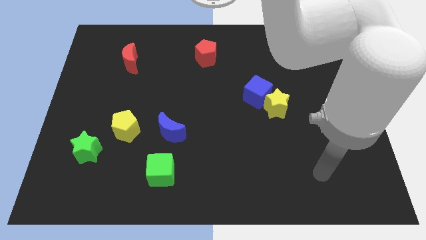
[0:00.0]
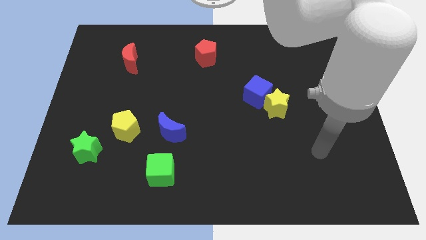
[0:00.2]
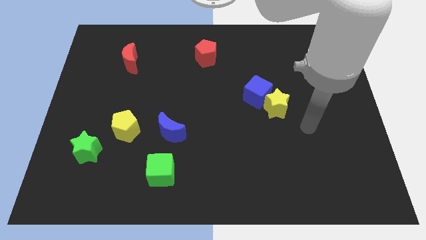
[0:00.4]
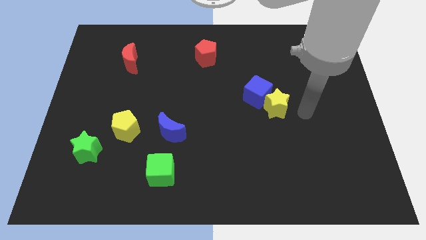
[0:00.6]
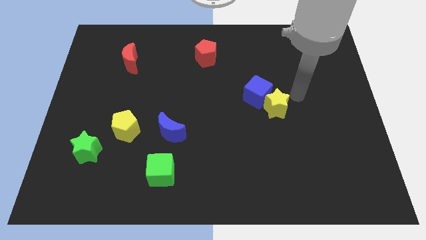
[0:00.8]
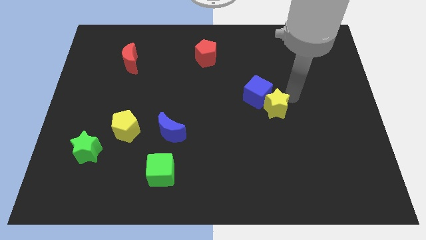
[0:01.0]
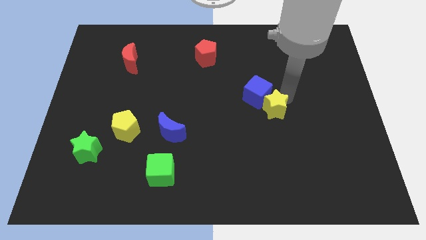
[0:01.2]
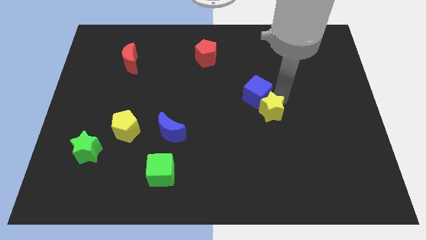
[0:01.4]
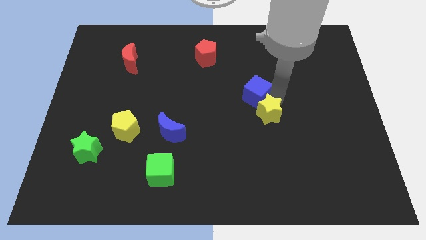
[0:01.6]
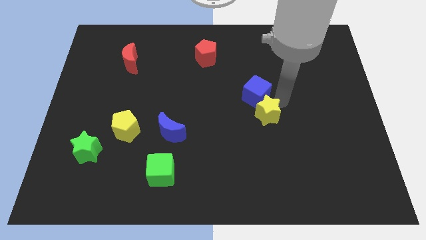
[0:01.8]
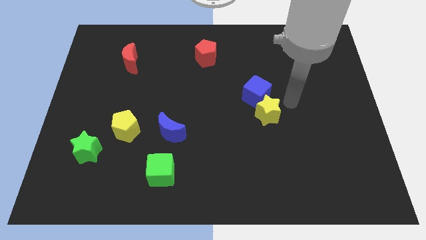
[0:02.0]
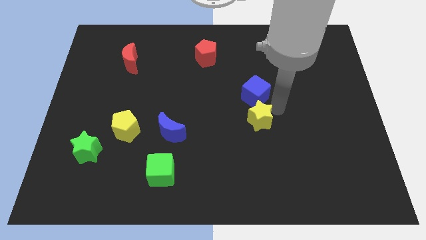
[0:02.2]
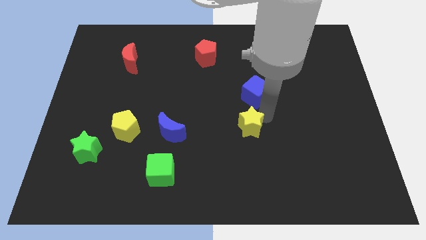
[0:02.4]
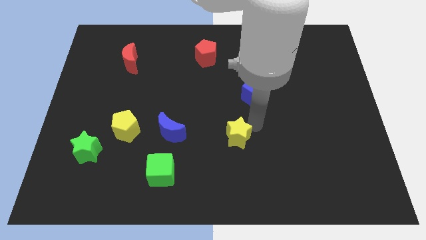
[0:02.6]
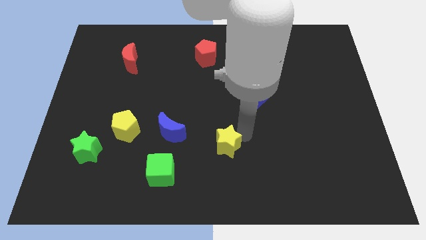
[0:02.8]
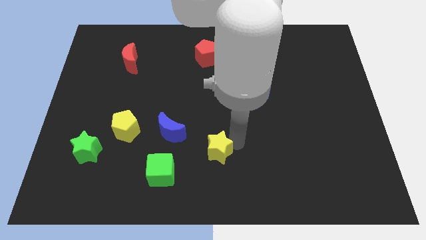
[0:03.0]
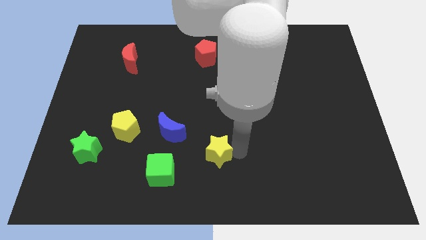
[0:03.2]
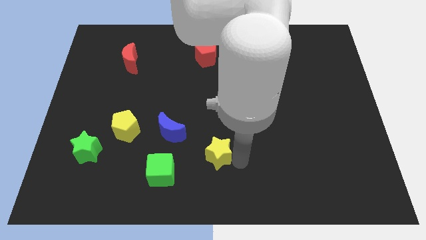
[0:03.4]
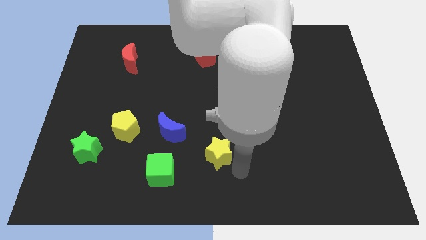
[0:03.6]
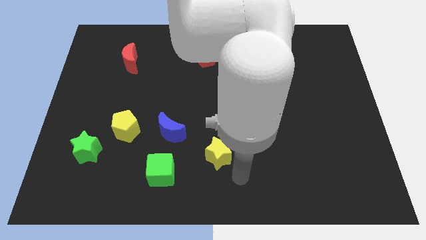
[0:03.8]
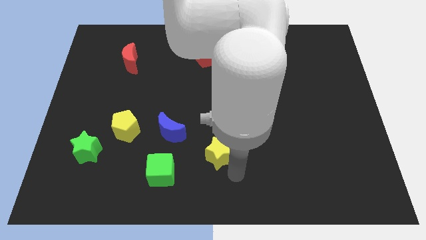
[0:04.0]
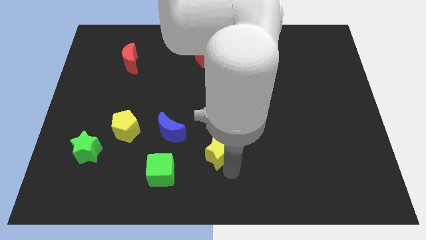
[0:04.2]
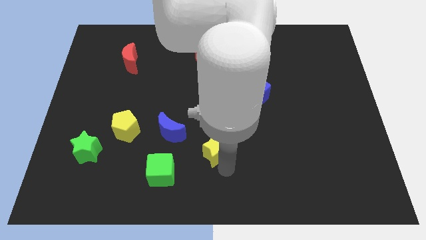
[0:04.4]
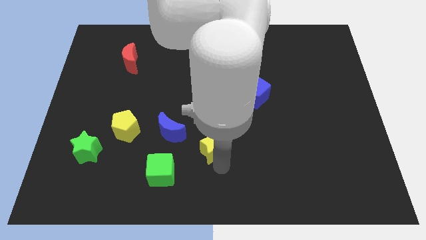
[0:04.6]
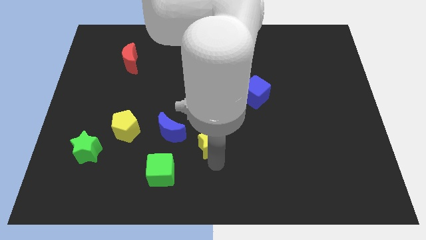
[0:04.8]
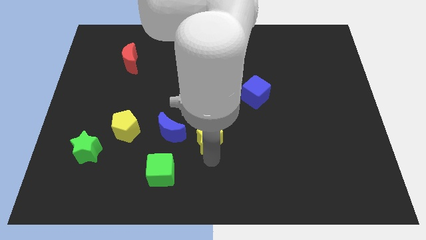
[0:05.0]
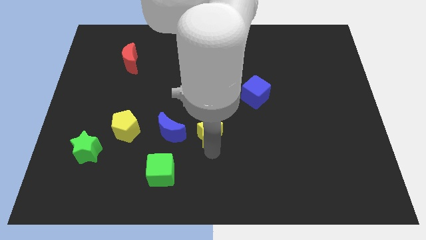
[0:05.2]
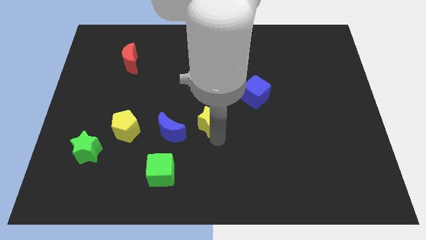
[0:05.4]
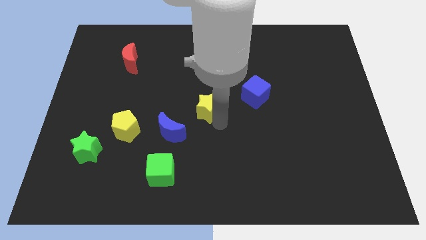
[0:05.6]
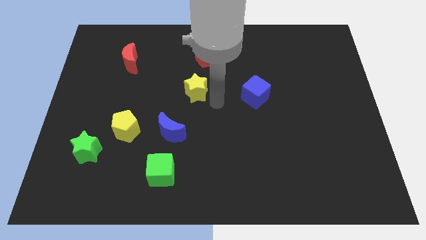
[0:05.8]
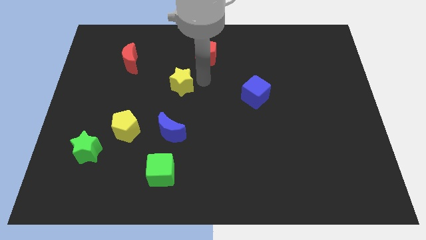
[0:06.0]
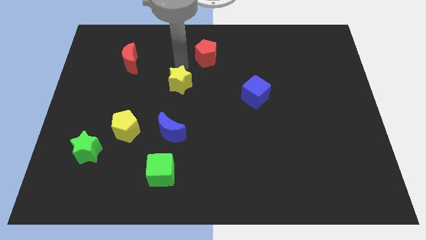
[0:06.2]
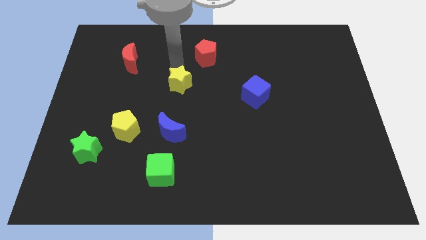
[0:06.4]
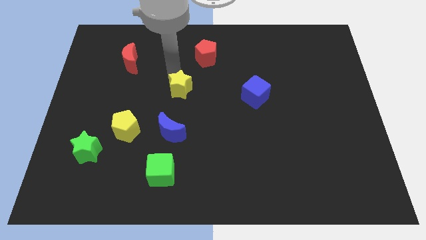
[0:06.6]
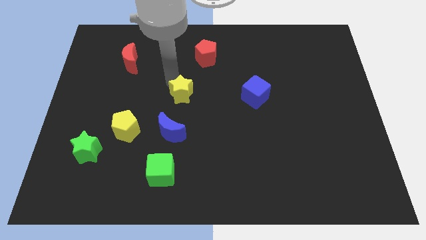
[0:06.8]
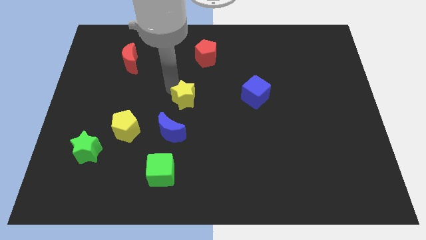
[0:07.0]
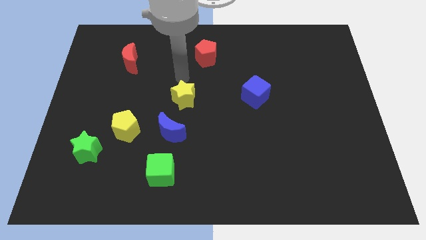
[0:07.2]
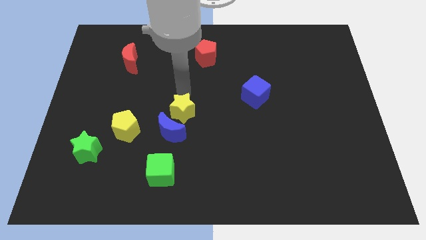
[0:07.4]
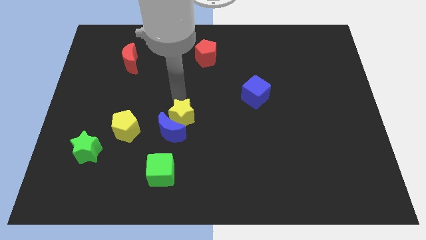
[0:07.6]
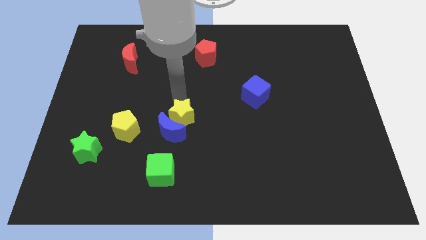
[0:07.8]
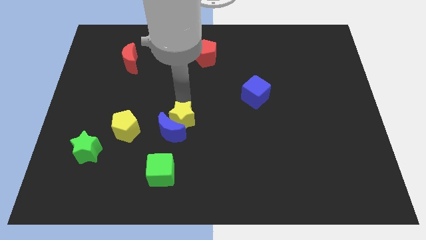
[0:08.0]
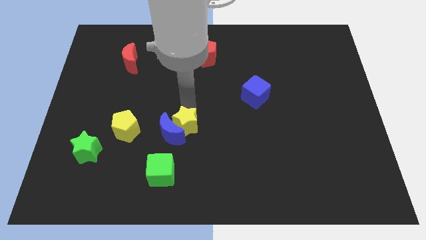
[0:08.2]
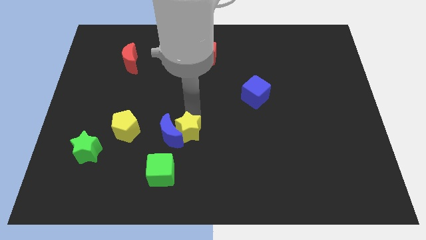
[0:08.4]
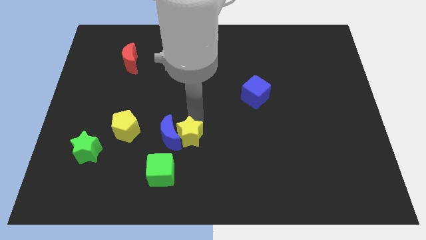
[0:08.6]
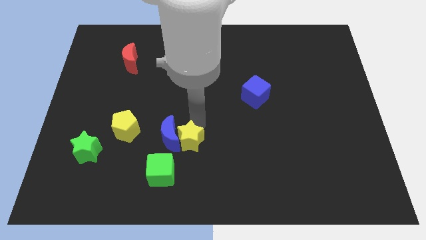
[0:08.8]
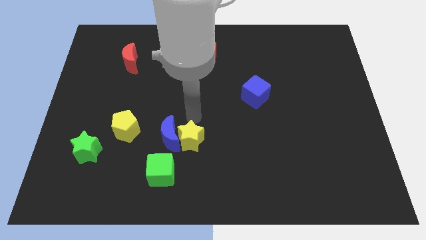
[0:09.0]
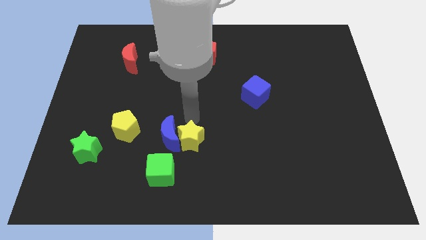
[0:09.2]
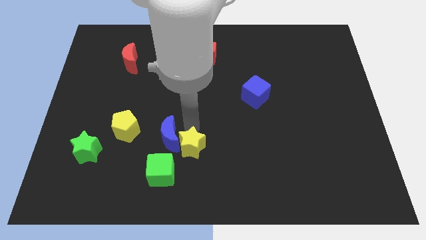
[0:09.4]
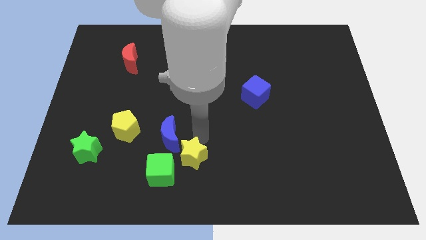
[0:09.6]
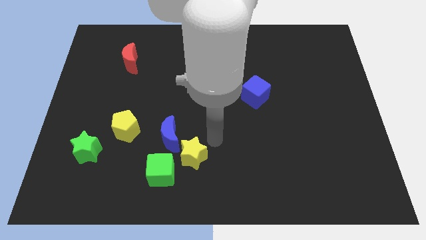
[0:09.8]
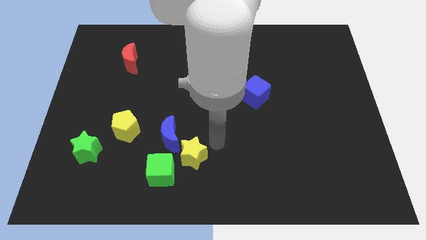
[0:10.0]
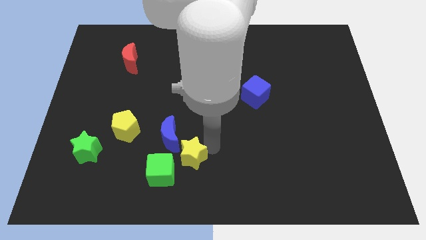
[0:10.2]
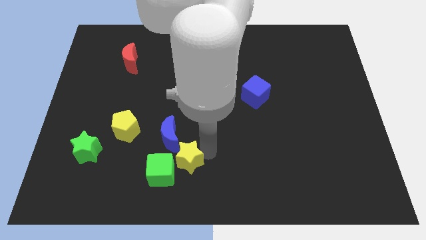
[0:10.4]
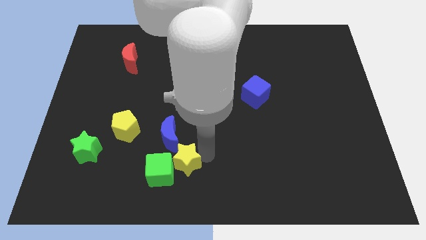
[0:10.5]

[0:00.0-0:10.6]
push the yellow star next to the green cube

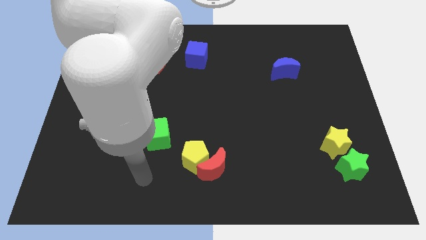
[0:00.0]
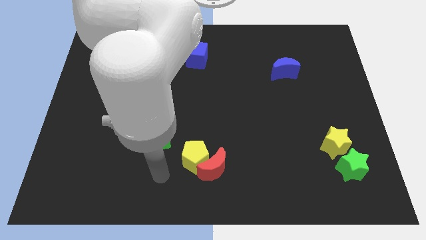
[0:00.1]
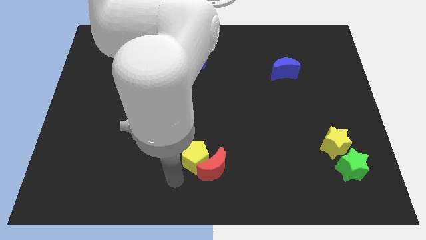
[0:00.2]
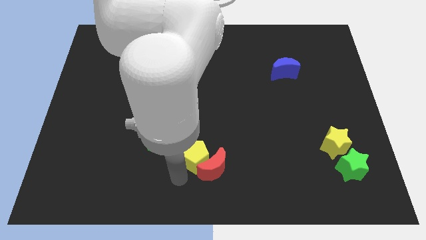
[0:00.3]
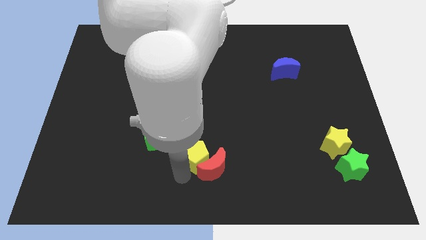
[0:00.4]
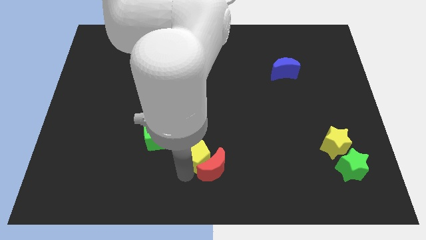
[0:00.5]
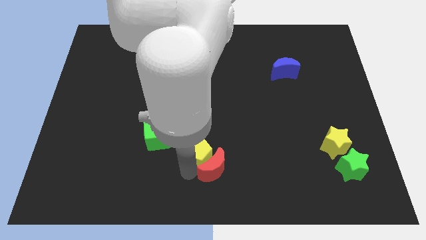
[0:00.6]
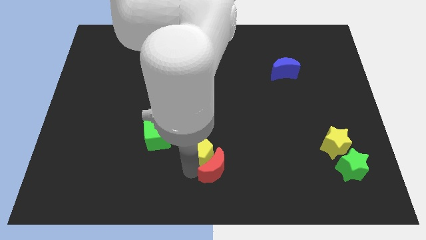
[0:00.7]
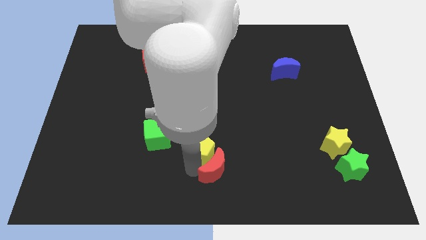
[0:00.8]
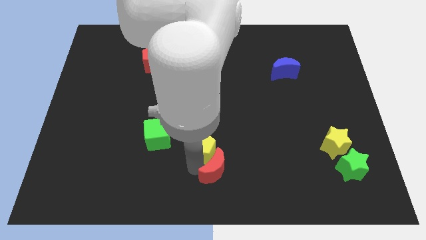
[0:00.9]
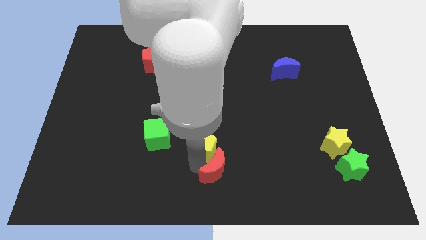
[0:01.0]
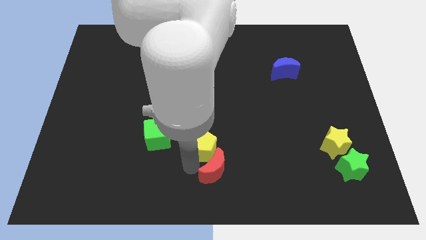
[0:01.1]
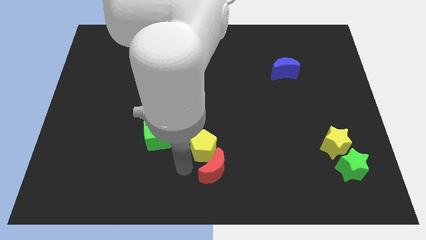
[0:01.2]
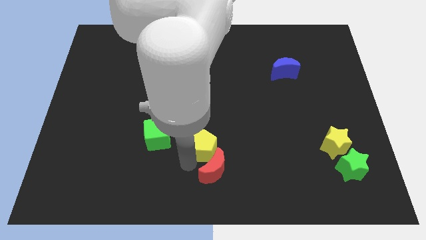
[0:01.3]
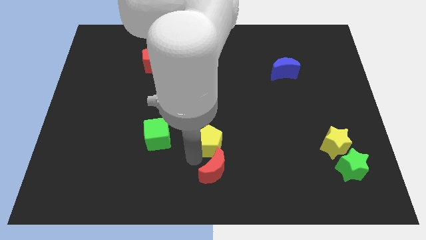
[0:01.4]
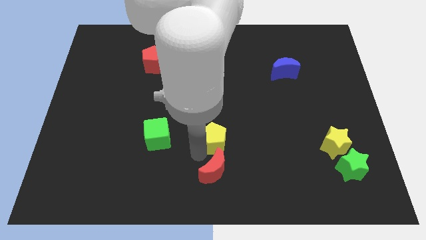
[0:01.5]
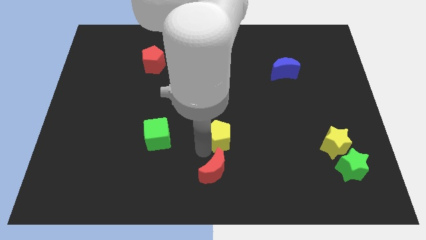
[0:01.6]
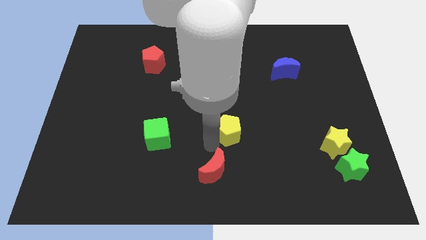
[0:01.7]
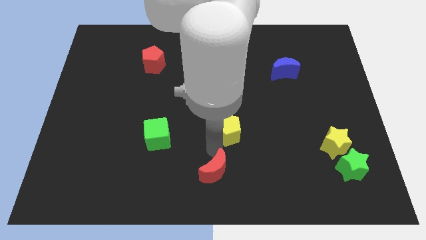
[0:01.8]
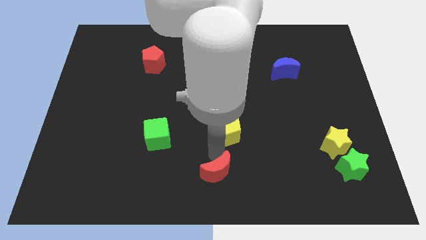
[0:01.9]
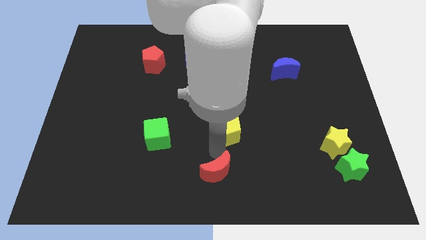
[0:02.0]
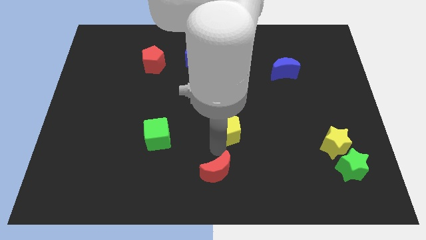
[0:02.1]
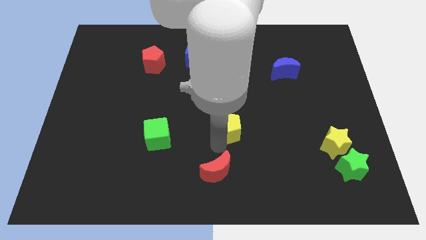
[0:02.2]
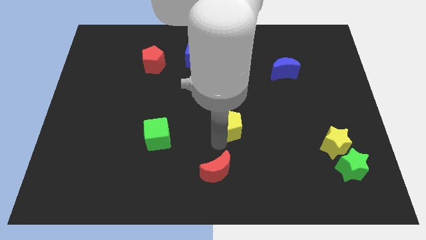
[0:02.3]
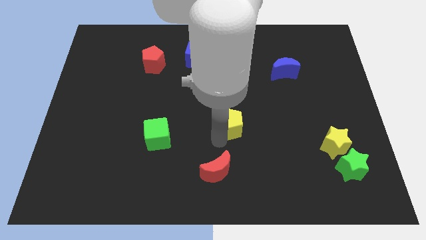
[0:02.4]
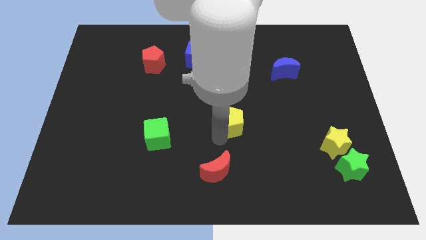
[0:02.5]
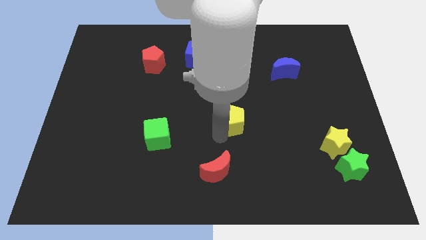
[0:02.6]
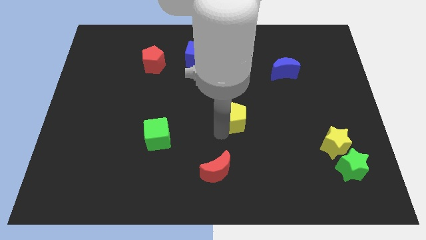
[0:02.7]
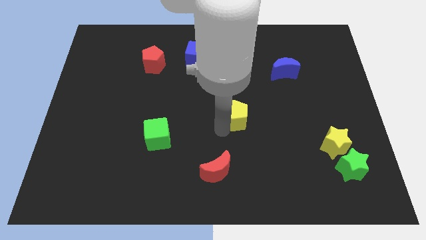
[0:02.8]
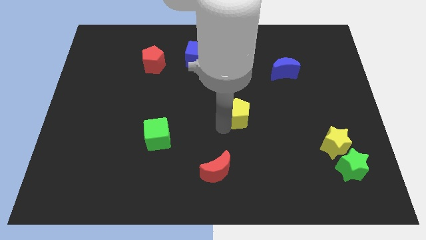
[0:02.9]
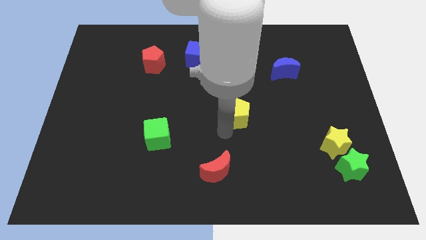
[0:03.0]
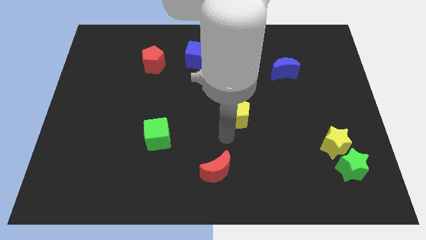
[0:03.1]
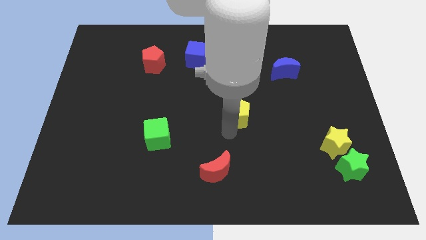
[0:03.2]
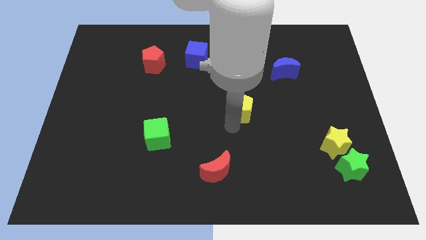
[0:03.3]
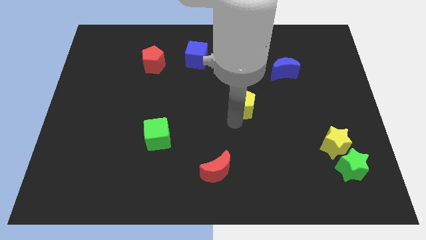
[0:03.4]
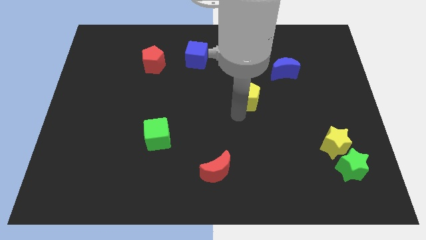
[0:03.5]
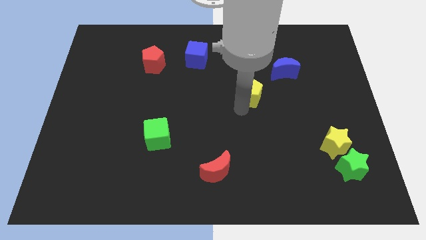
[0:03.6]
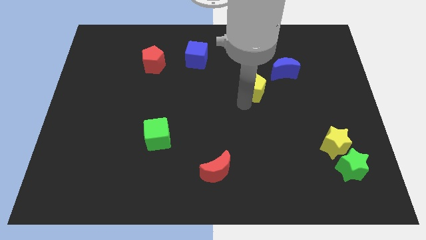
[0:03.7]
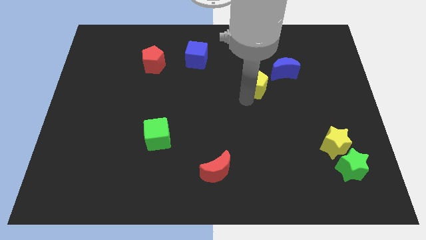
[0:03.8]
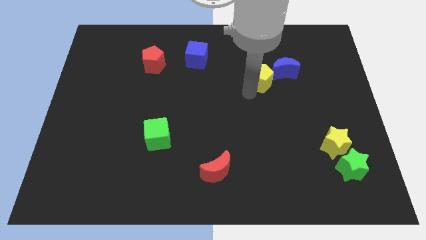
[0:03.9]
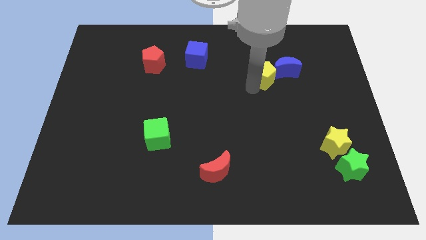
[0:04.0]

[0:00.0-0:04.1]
put the yellow pentagon close to the blue moon
